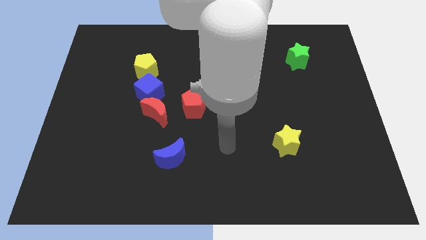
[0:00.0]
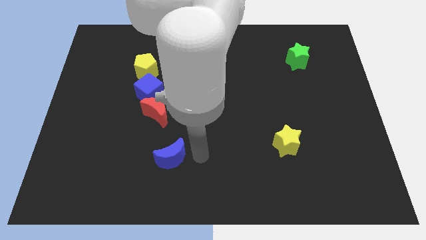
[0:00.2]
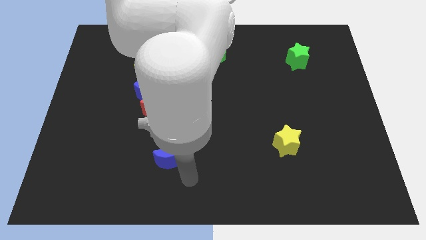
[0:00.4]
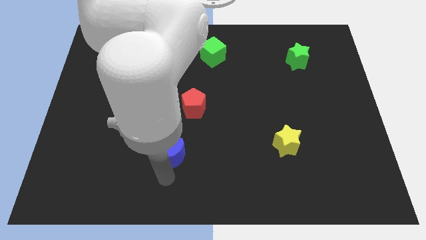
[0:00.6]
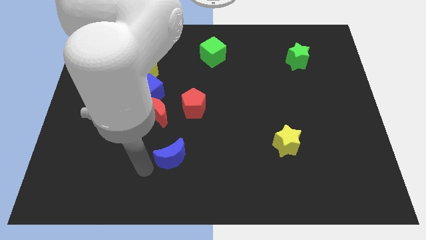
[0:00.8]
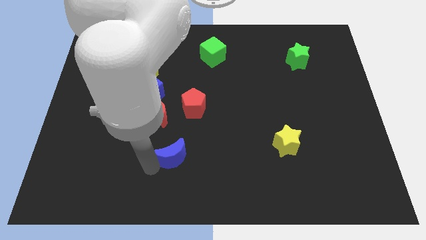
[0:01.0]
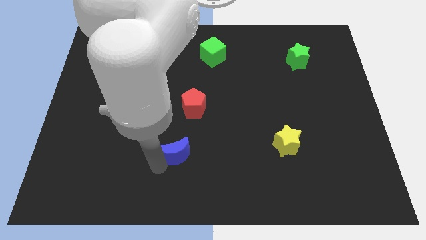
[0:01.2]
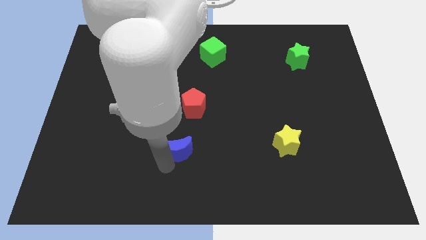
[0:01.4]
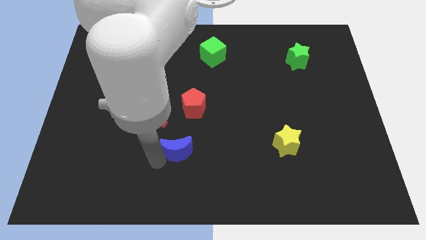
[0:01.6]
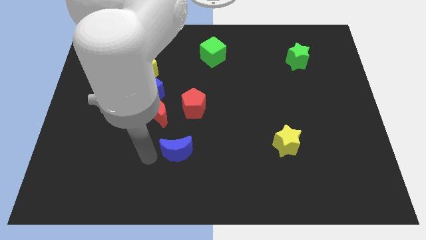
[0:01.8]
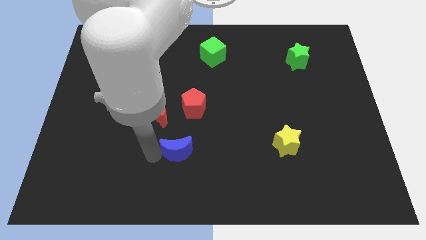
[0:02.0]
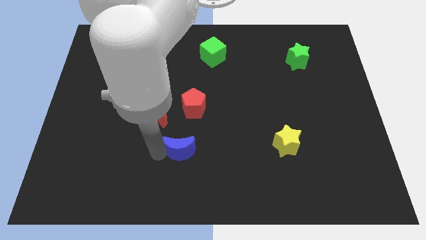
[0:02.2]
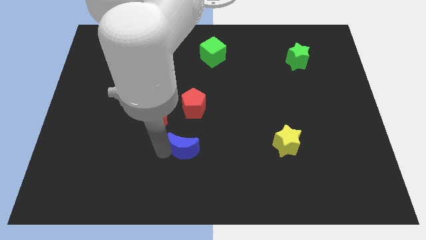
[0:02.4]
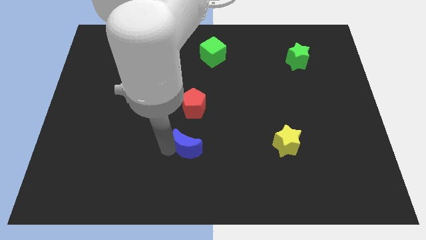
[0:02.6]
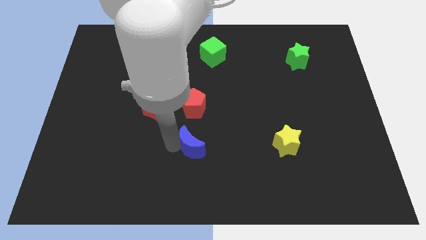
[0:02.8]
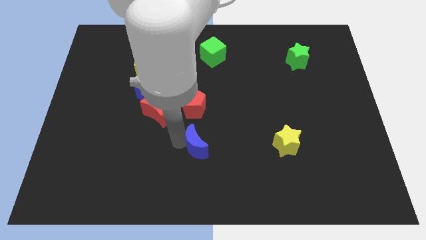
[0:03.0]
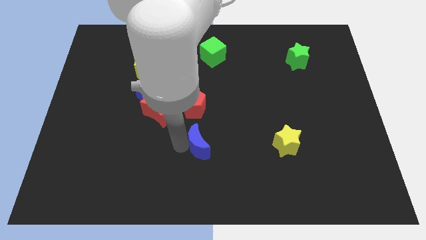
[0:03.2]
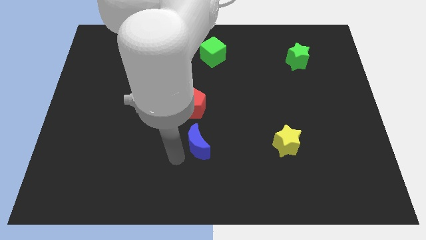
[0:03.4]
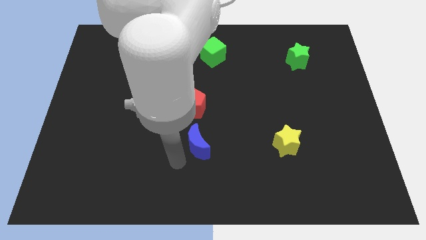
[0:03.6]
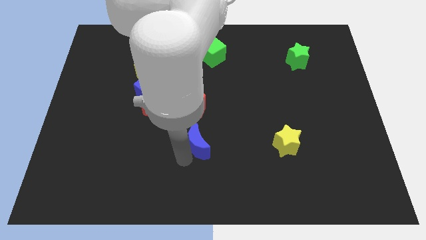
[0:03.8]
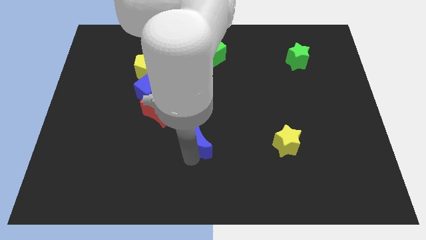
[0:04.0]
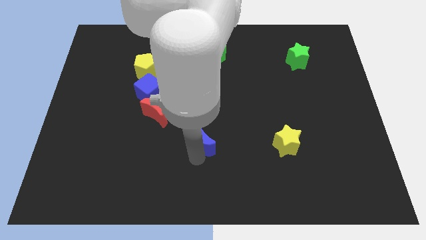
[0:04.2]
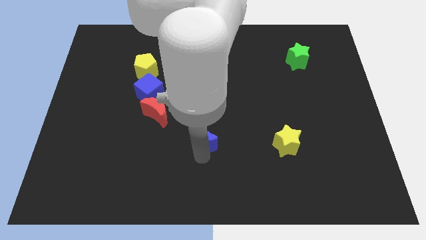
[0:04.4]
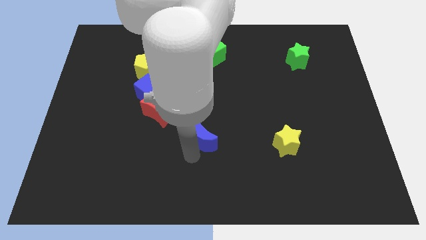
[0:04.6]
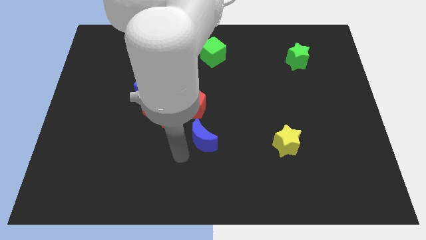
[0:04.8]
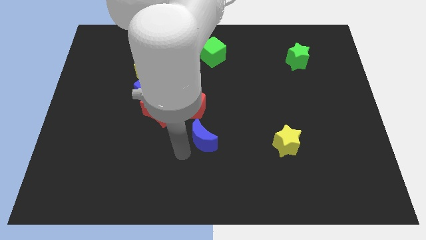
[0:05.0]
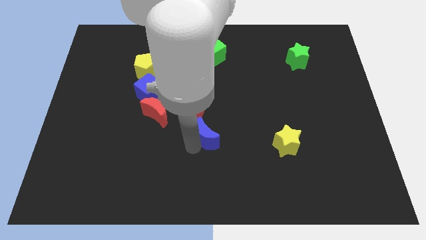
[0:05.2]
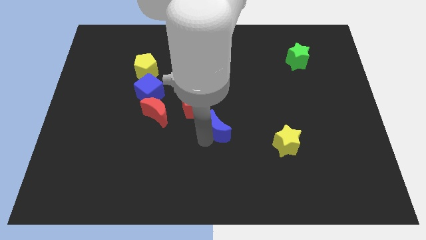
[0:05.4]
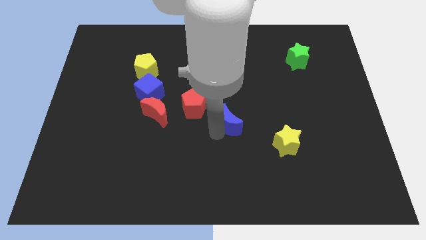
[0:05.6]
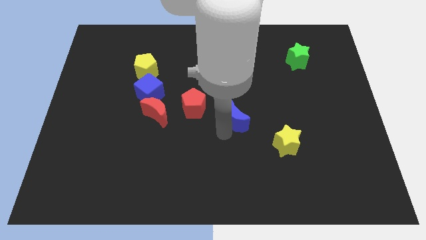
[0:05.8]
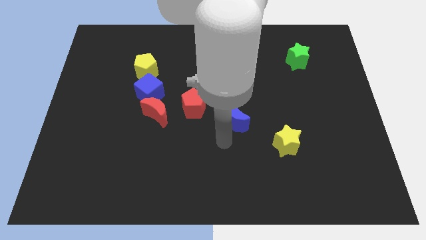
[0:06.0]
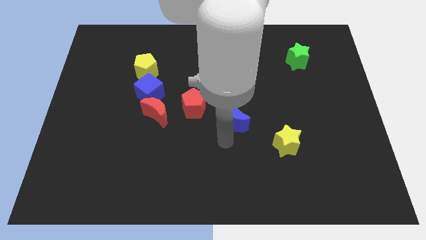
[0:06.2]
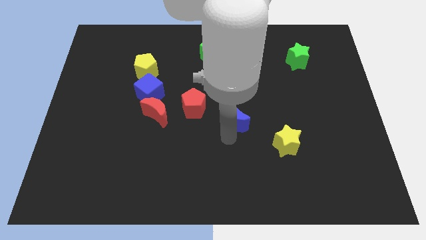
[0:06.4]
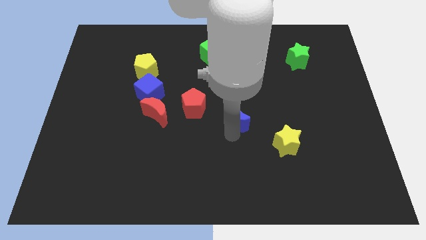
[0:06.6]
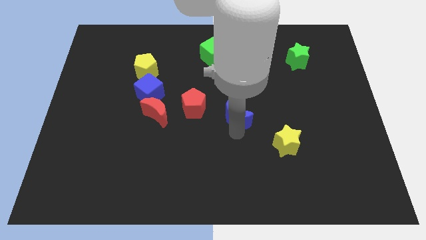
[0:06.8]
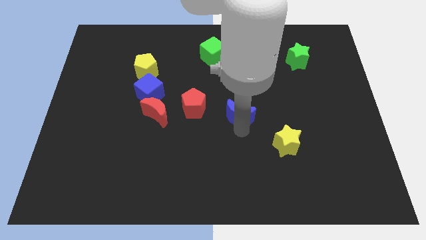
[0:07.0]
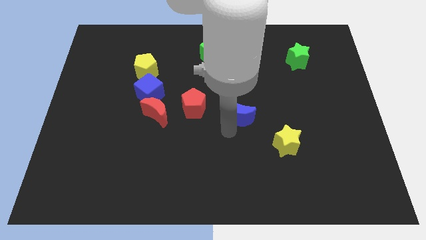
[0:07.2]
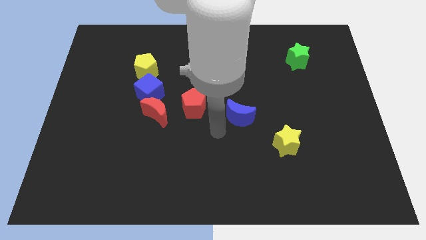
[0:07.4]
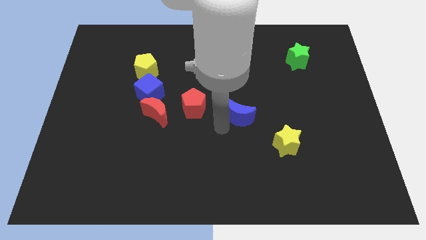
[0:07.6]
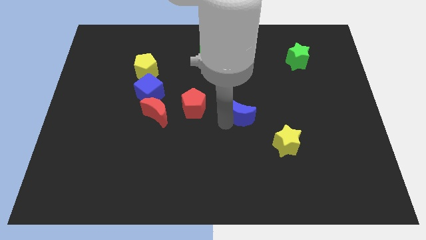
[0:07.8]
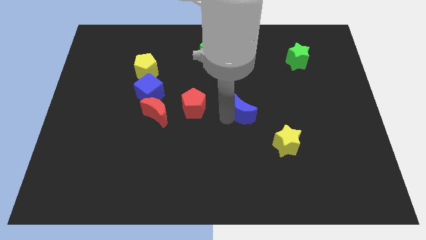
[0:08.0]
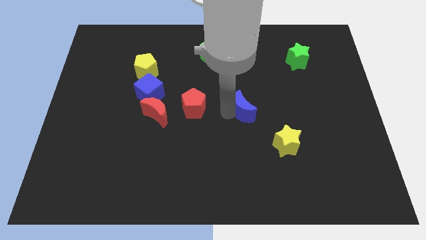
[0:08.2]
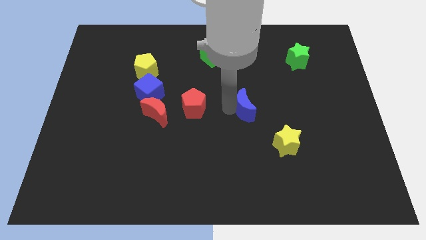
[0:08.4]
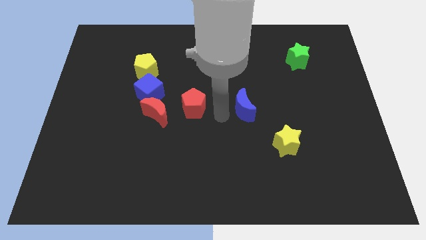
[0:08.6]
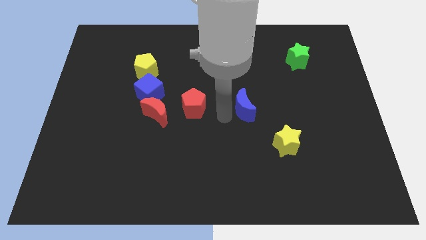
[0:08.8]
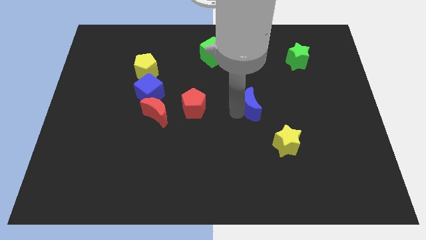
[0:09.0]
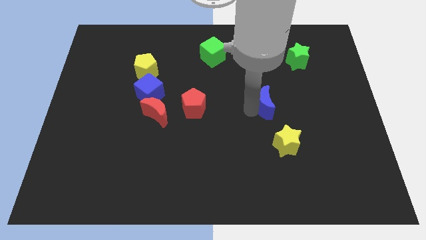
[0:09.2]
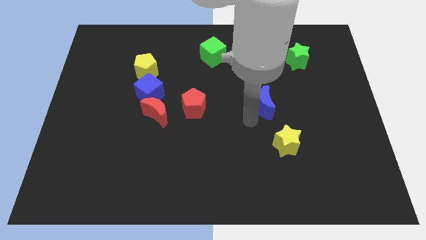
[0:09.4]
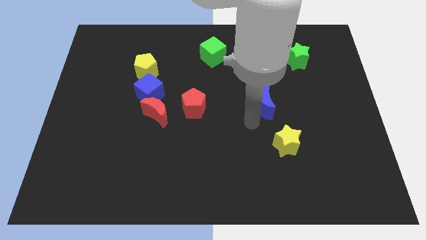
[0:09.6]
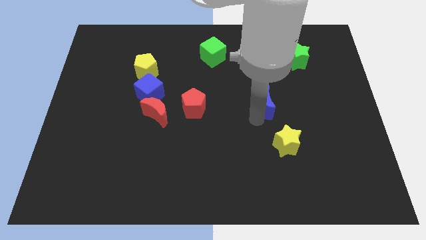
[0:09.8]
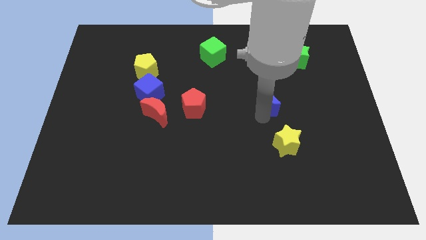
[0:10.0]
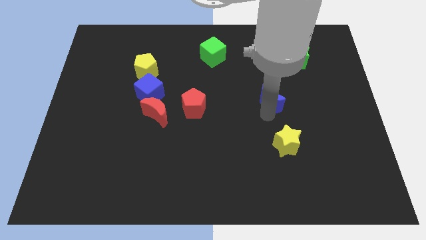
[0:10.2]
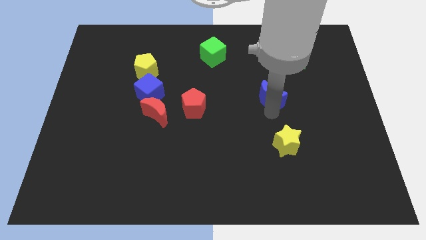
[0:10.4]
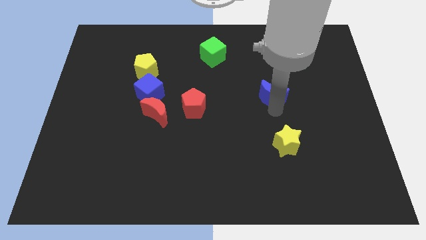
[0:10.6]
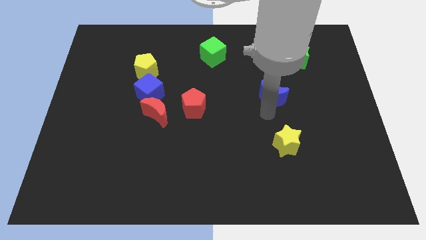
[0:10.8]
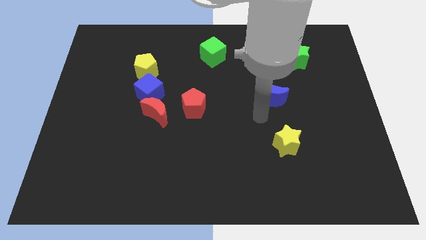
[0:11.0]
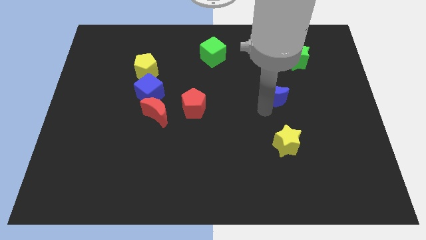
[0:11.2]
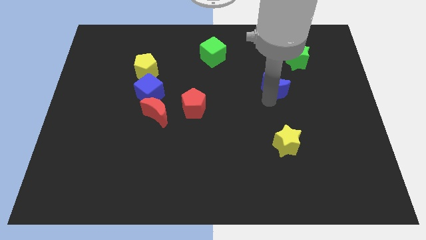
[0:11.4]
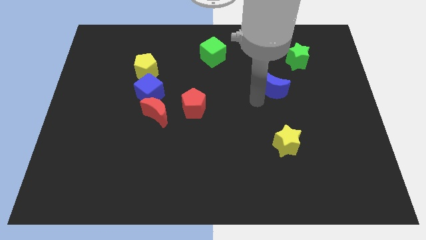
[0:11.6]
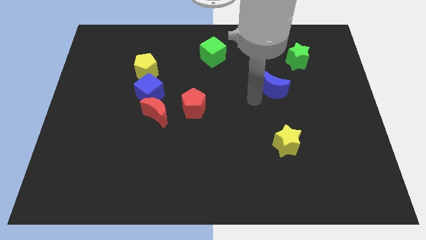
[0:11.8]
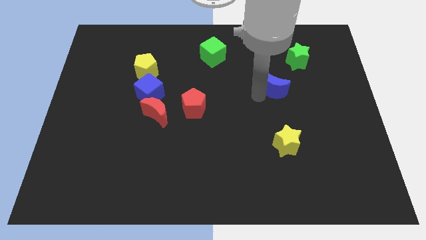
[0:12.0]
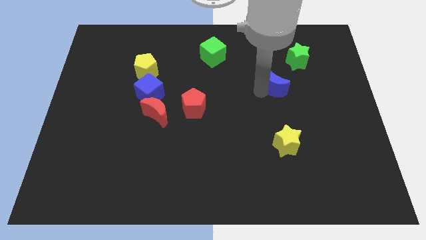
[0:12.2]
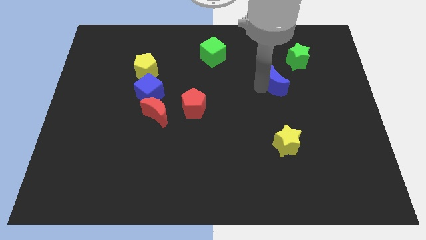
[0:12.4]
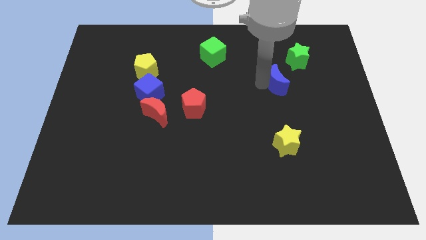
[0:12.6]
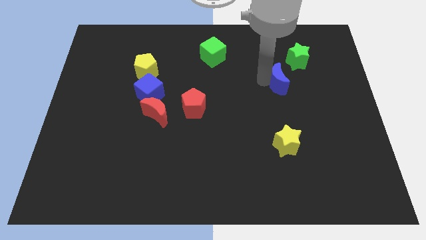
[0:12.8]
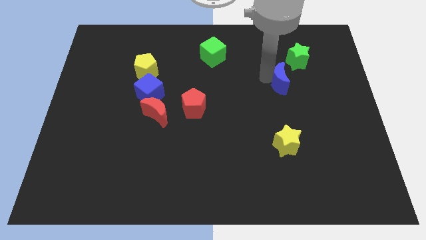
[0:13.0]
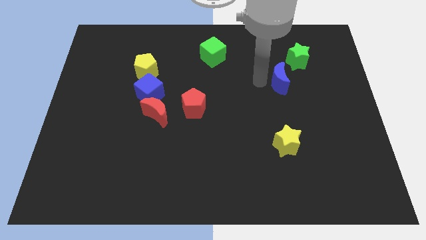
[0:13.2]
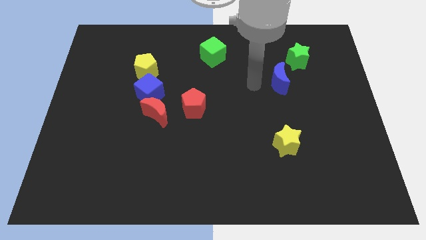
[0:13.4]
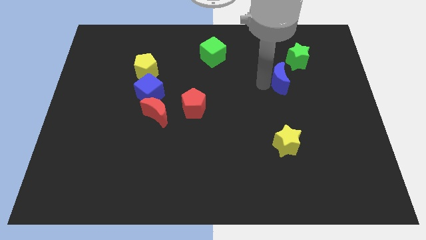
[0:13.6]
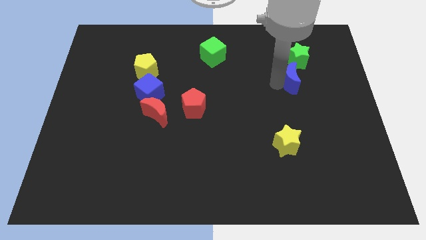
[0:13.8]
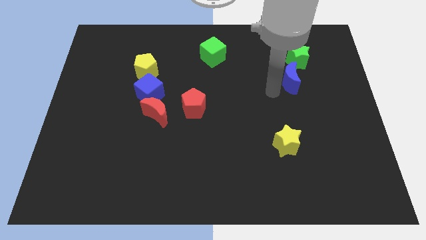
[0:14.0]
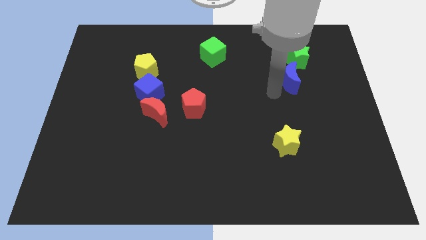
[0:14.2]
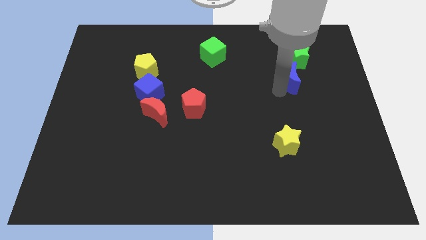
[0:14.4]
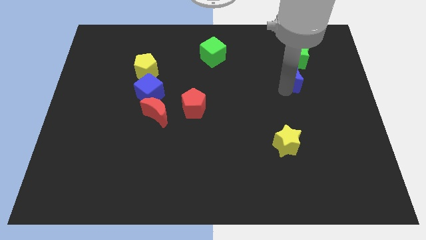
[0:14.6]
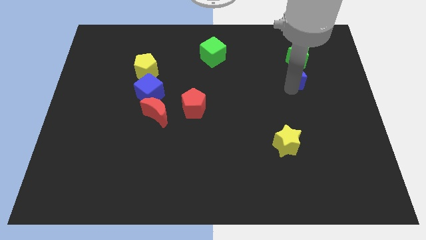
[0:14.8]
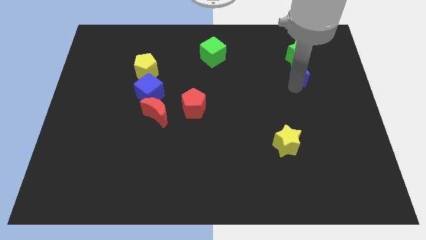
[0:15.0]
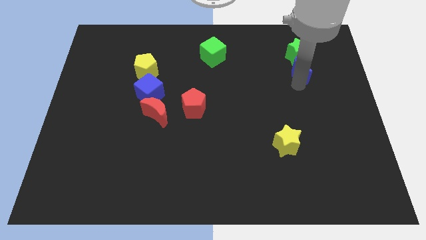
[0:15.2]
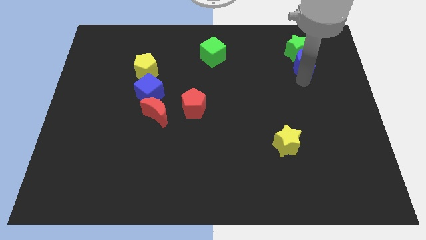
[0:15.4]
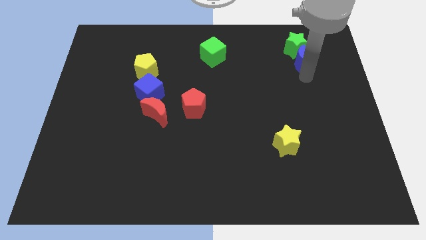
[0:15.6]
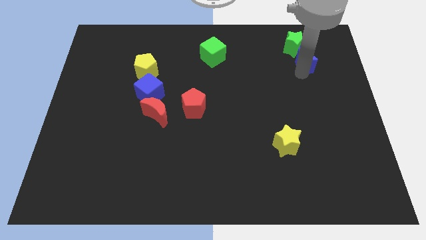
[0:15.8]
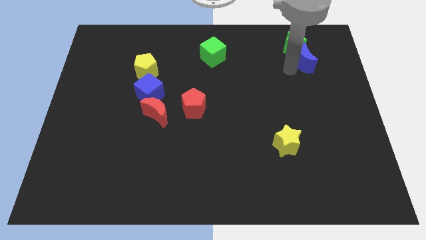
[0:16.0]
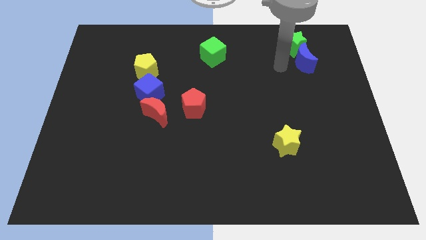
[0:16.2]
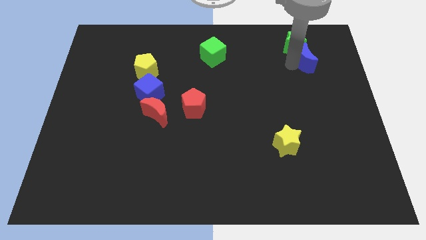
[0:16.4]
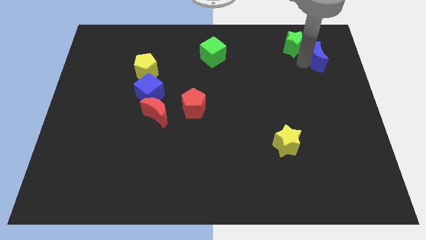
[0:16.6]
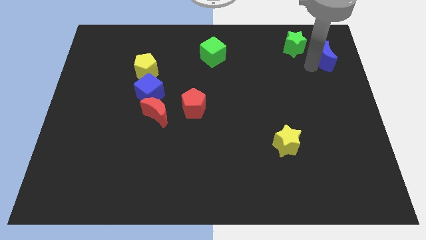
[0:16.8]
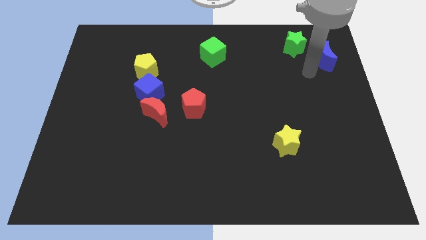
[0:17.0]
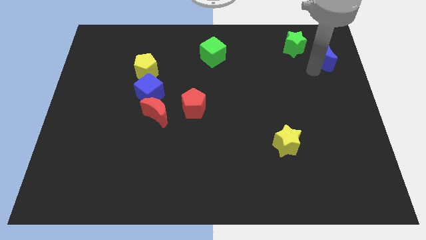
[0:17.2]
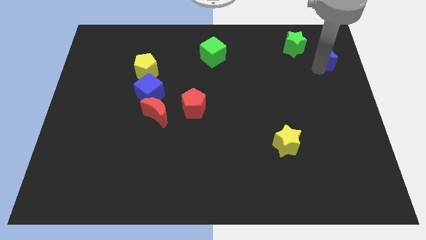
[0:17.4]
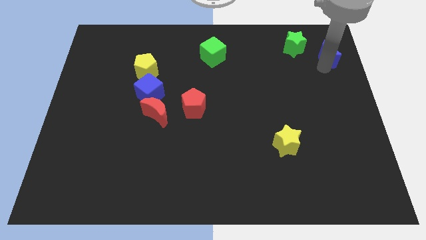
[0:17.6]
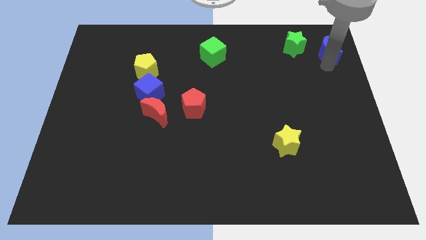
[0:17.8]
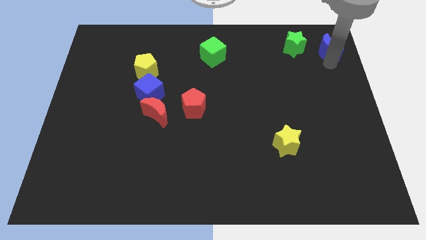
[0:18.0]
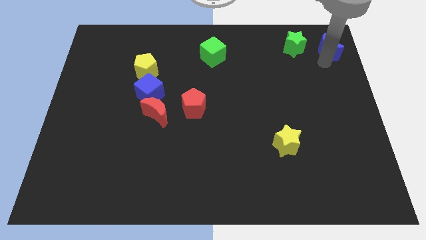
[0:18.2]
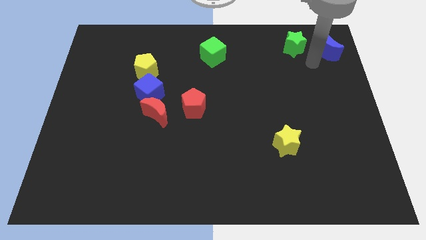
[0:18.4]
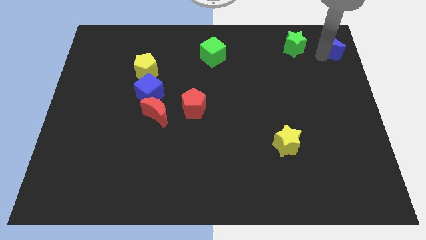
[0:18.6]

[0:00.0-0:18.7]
put the blue moon to the top right of the board
